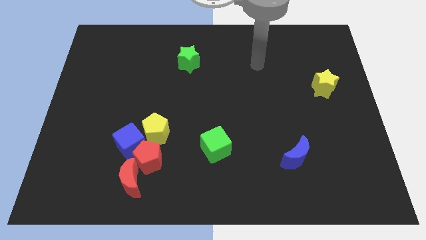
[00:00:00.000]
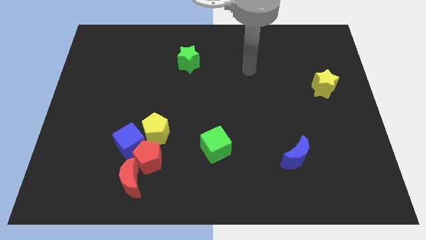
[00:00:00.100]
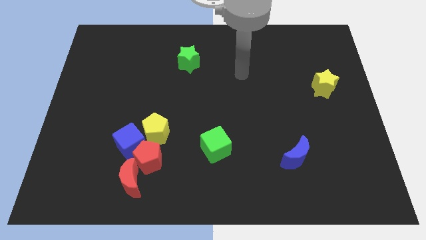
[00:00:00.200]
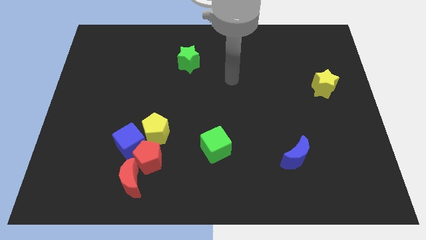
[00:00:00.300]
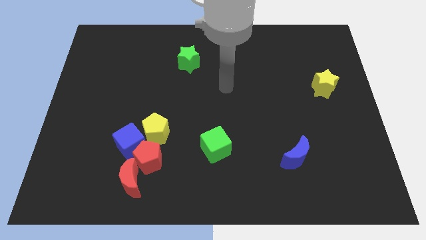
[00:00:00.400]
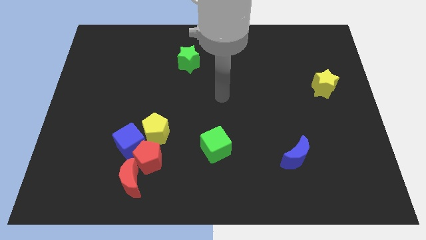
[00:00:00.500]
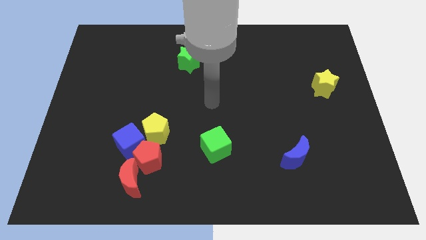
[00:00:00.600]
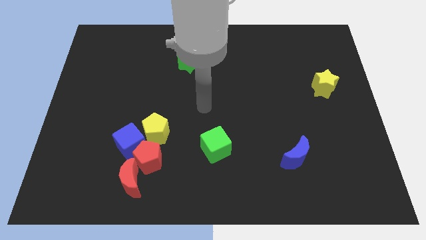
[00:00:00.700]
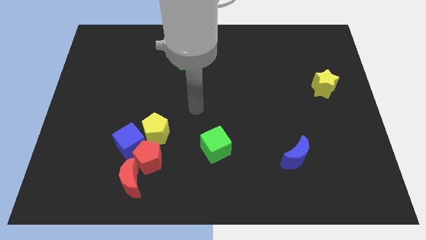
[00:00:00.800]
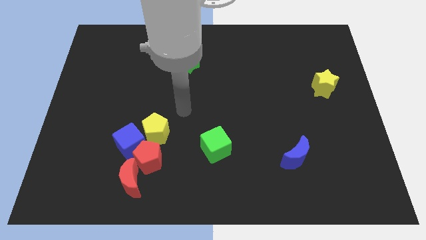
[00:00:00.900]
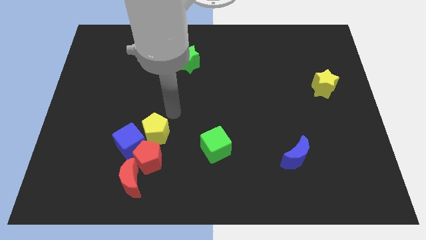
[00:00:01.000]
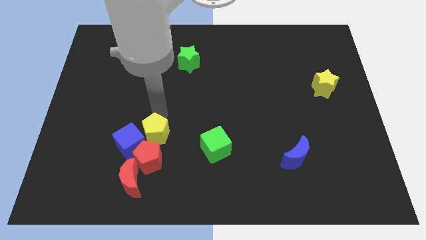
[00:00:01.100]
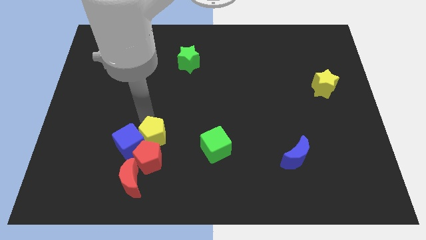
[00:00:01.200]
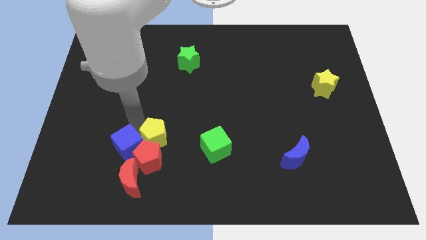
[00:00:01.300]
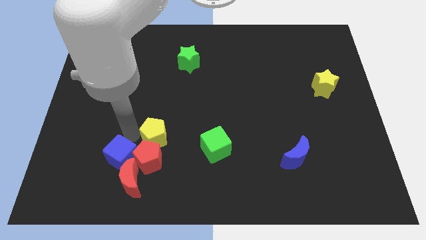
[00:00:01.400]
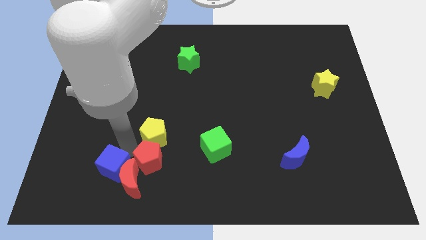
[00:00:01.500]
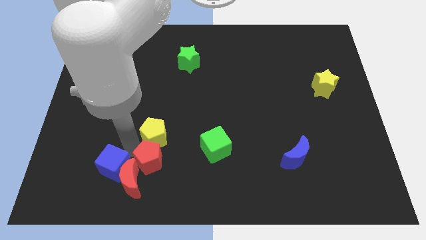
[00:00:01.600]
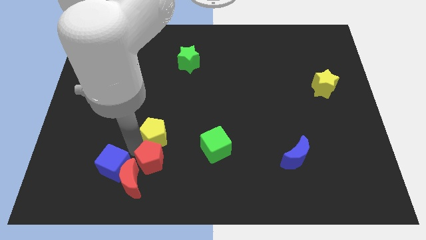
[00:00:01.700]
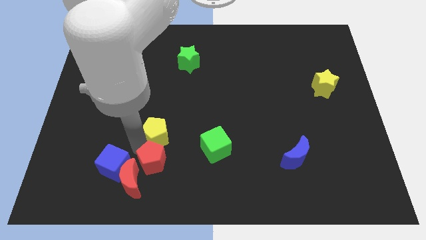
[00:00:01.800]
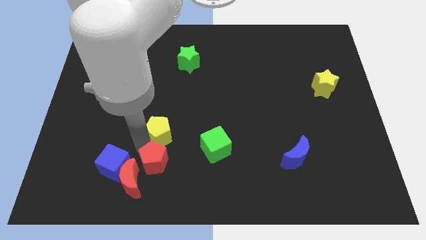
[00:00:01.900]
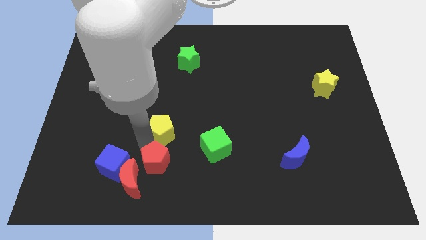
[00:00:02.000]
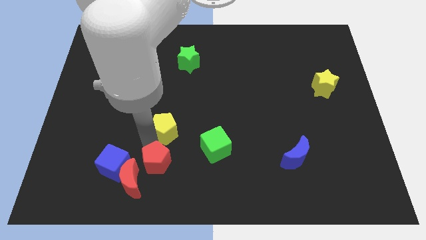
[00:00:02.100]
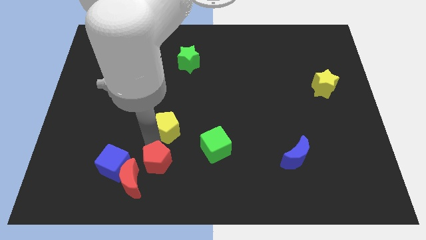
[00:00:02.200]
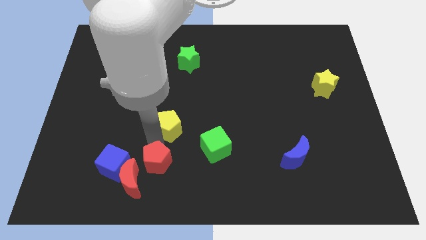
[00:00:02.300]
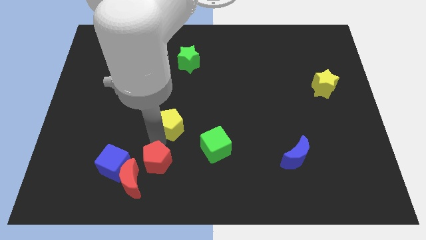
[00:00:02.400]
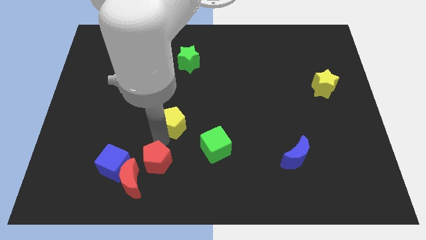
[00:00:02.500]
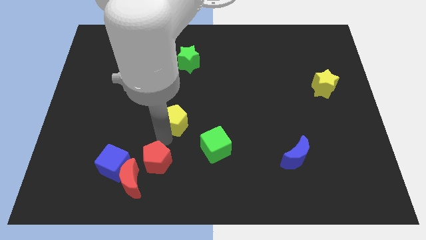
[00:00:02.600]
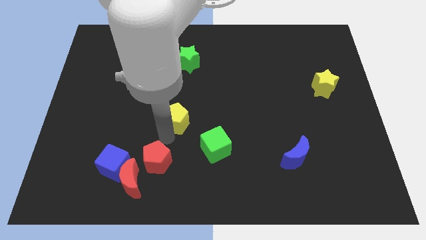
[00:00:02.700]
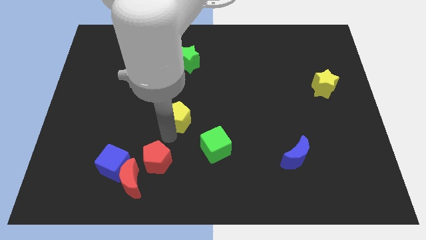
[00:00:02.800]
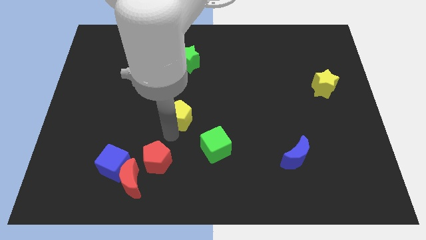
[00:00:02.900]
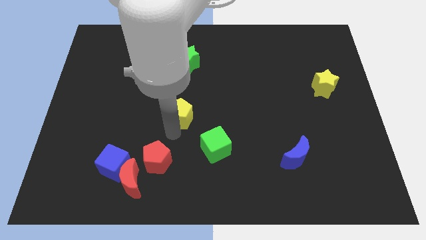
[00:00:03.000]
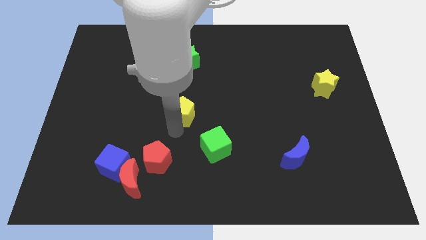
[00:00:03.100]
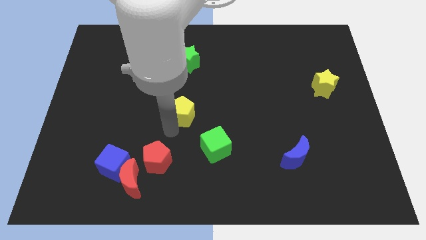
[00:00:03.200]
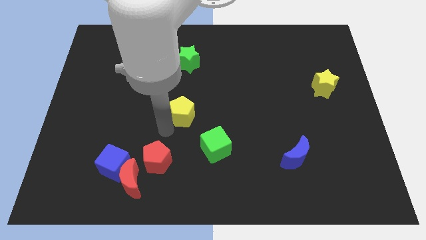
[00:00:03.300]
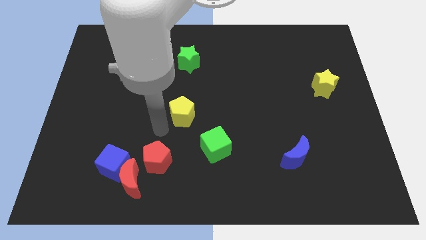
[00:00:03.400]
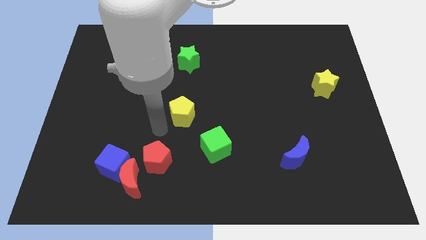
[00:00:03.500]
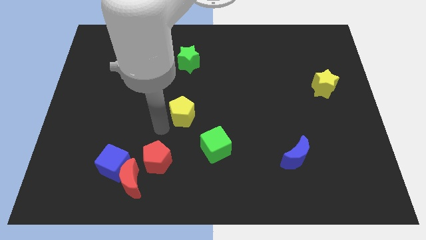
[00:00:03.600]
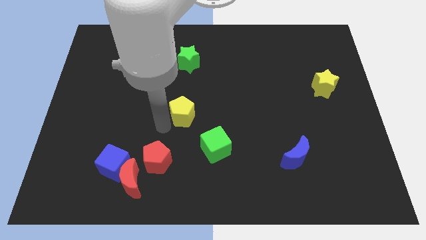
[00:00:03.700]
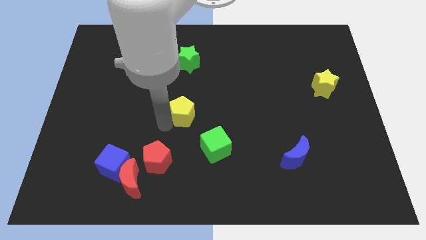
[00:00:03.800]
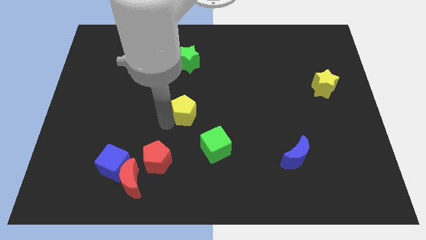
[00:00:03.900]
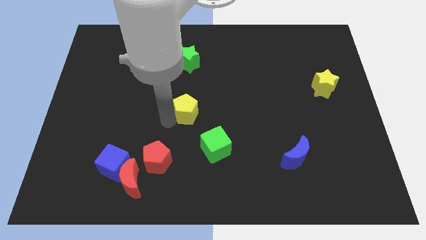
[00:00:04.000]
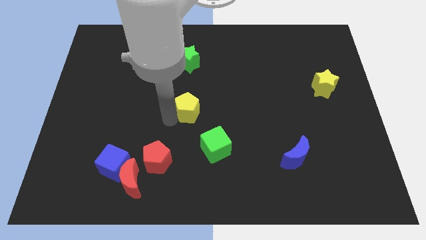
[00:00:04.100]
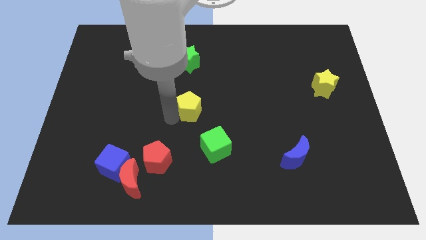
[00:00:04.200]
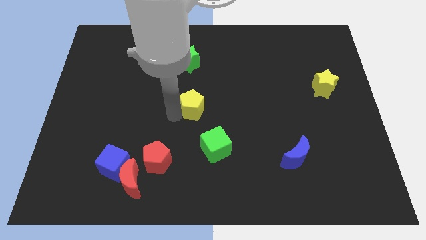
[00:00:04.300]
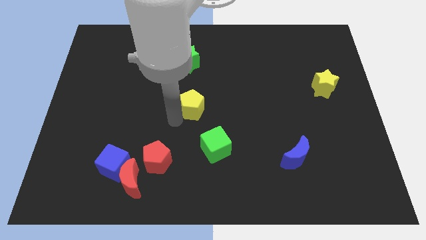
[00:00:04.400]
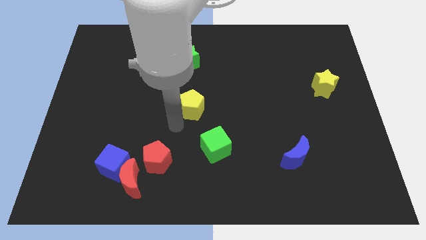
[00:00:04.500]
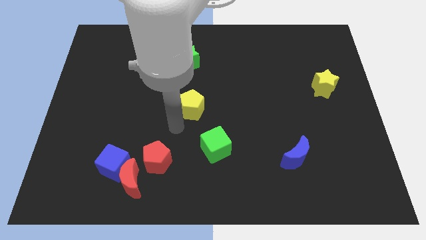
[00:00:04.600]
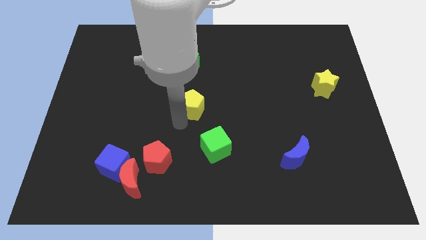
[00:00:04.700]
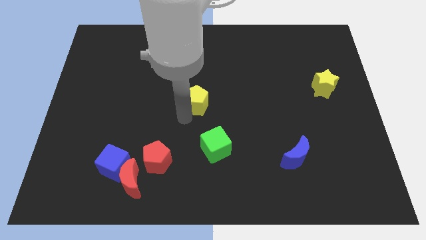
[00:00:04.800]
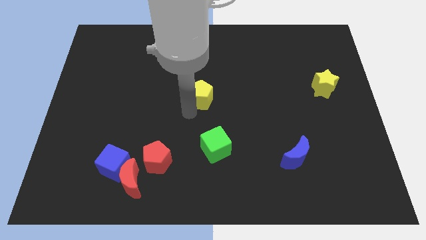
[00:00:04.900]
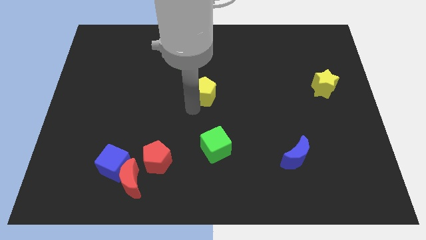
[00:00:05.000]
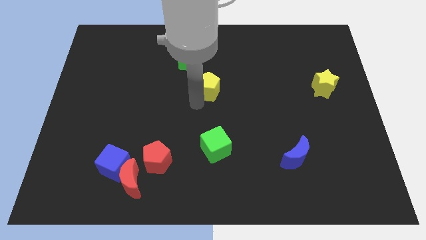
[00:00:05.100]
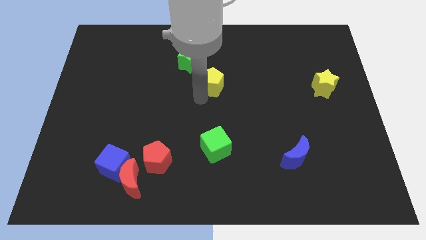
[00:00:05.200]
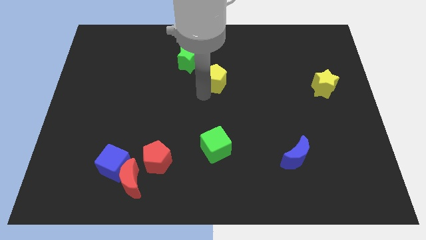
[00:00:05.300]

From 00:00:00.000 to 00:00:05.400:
slide the yellow pentagon upwards and to the right diagonally

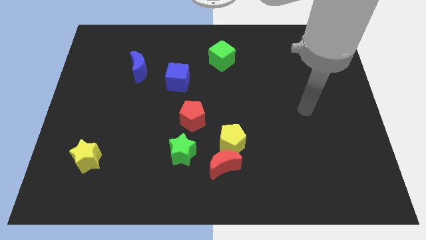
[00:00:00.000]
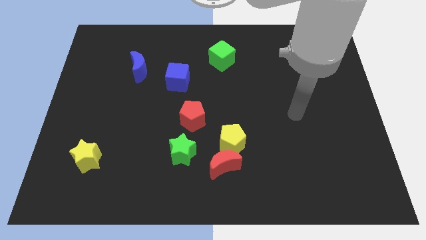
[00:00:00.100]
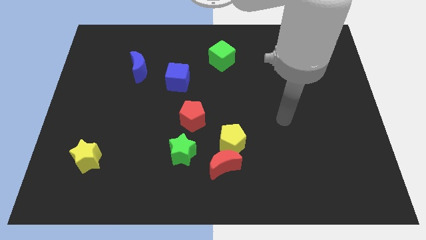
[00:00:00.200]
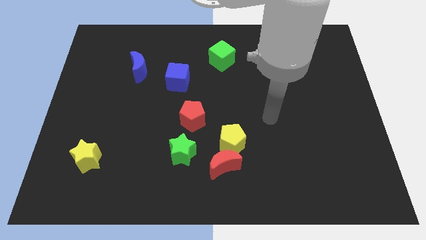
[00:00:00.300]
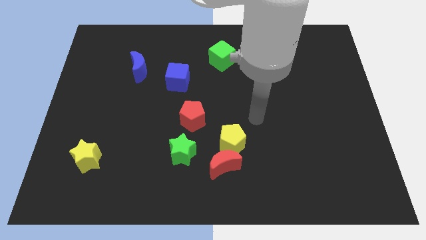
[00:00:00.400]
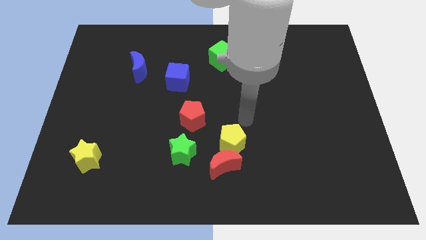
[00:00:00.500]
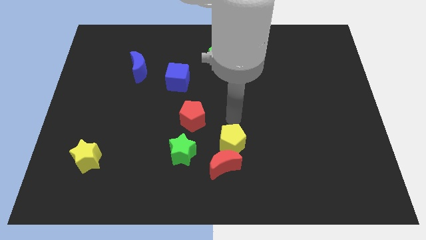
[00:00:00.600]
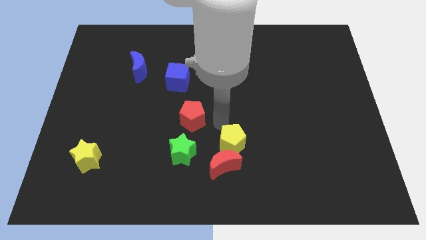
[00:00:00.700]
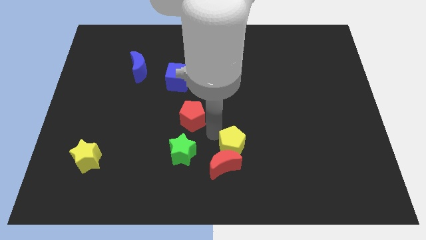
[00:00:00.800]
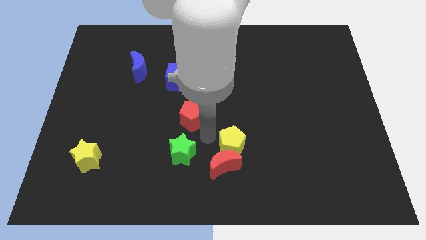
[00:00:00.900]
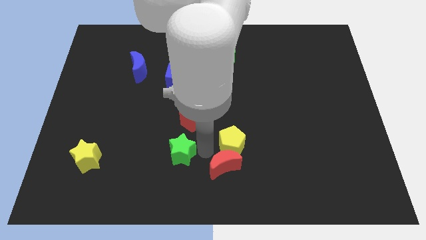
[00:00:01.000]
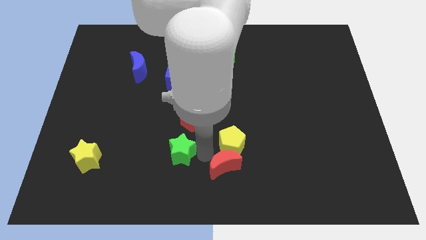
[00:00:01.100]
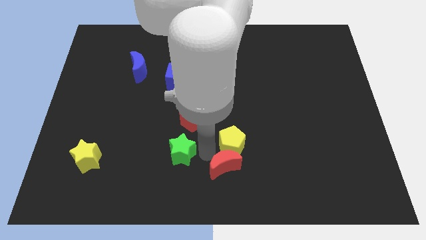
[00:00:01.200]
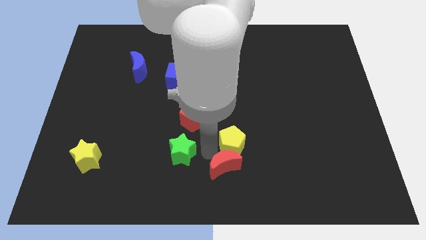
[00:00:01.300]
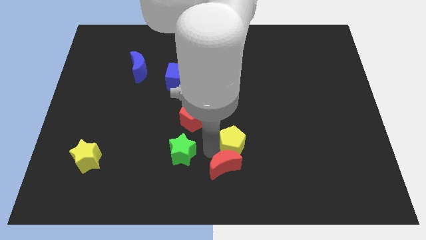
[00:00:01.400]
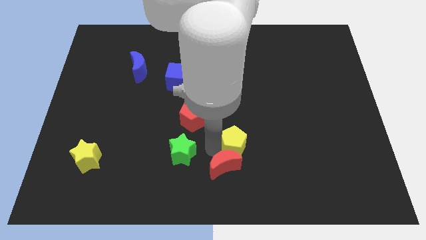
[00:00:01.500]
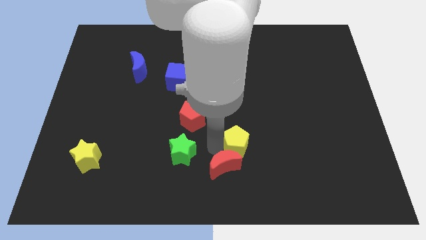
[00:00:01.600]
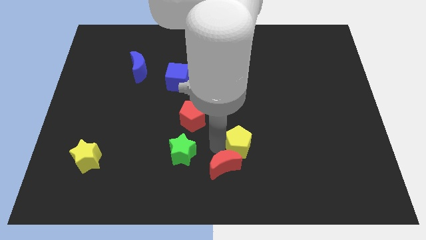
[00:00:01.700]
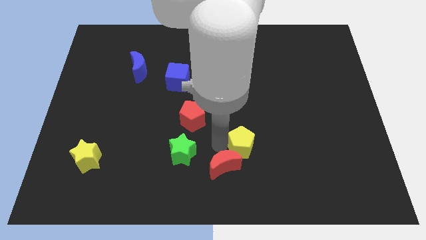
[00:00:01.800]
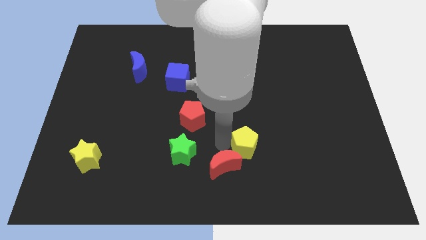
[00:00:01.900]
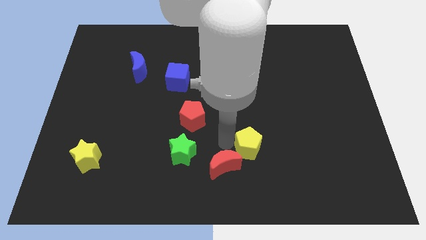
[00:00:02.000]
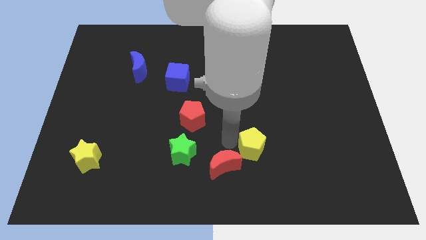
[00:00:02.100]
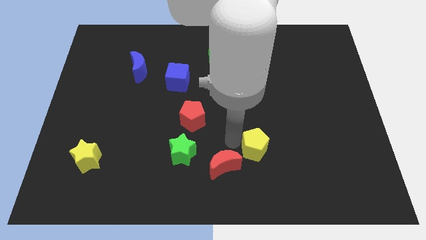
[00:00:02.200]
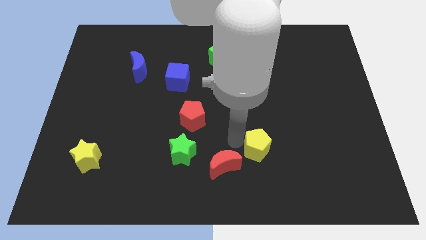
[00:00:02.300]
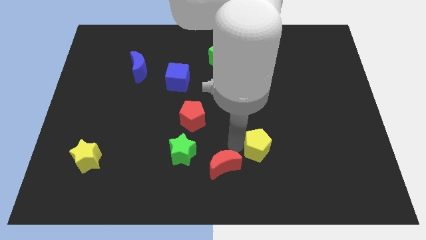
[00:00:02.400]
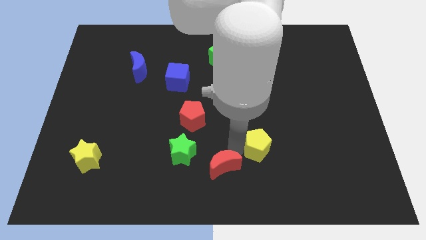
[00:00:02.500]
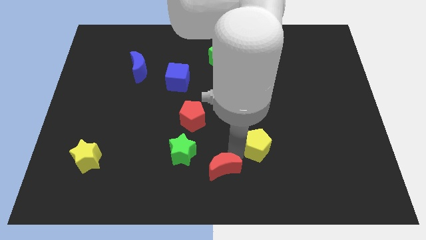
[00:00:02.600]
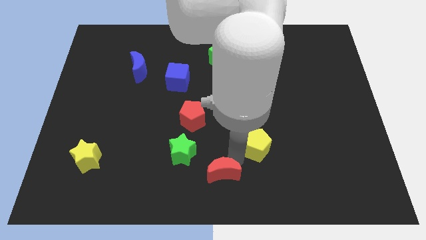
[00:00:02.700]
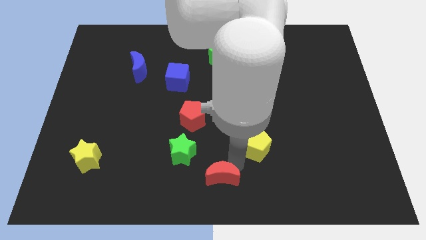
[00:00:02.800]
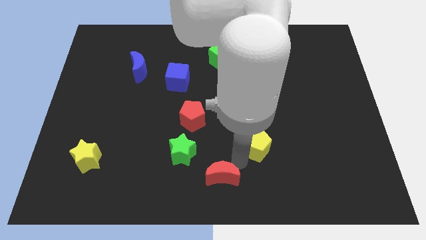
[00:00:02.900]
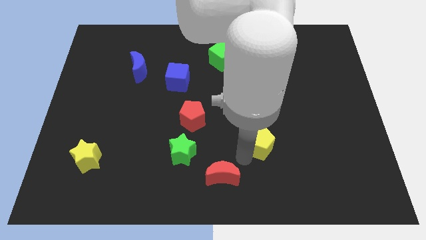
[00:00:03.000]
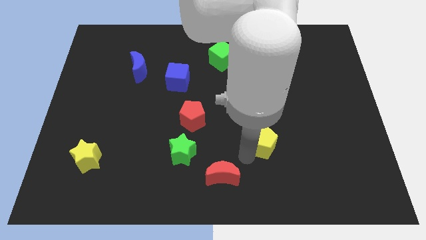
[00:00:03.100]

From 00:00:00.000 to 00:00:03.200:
slightly slide the yellow pentagon right
